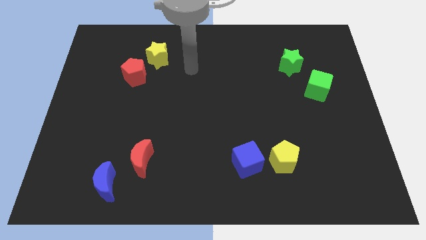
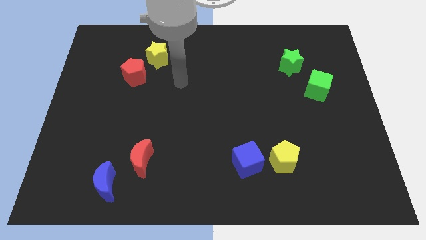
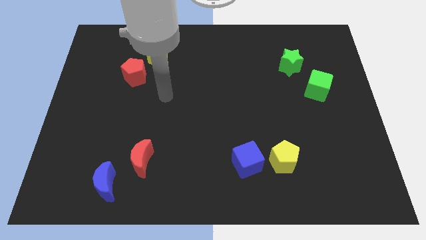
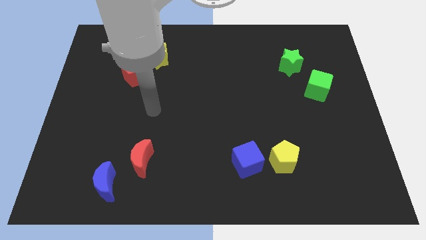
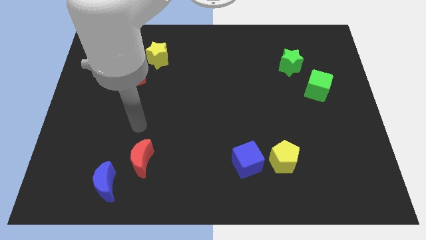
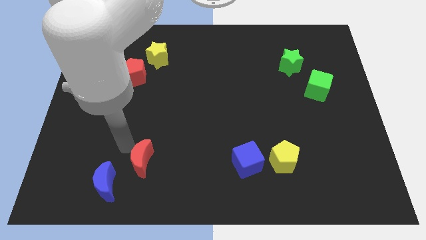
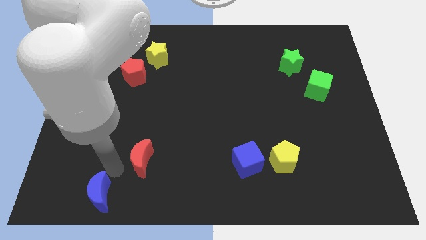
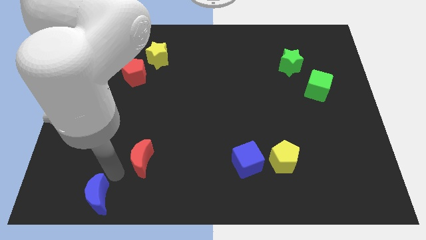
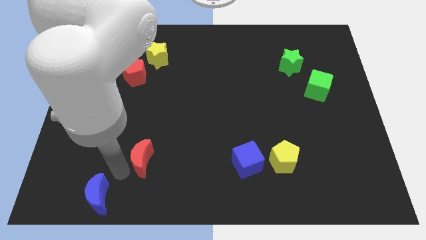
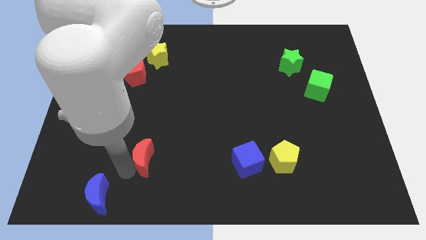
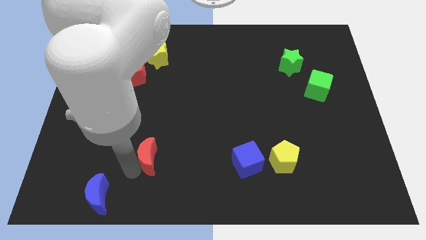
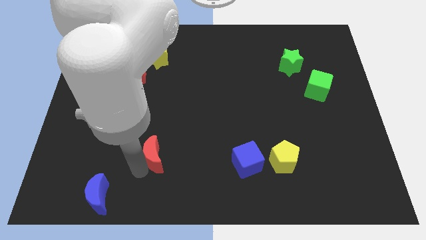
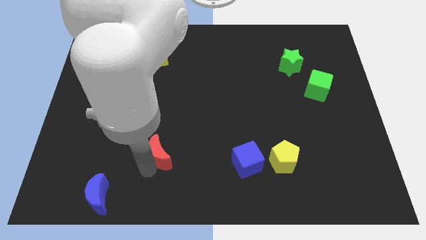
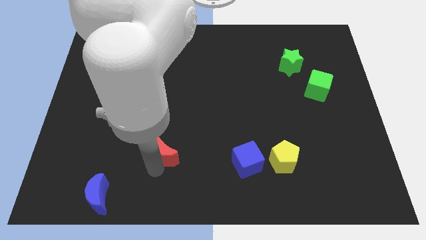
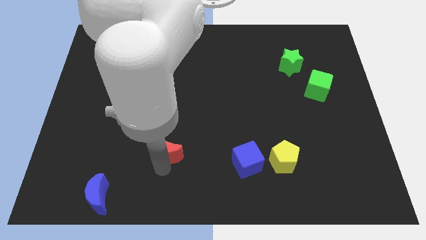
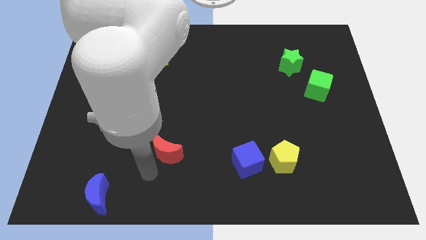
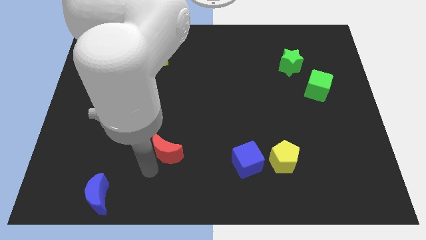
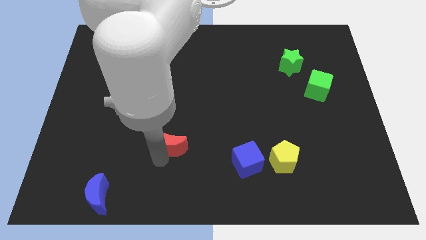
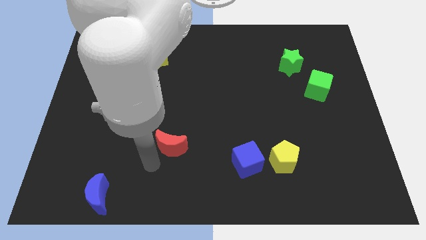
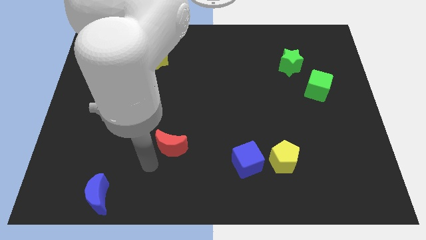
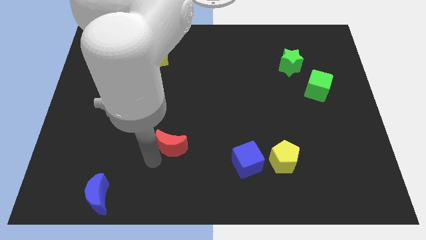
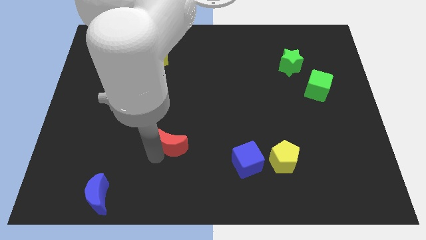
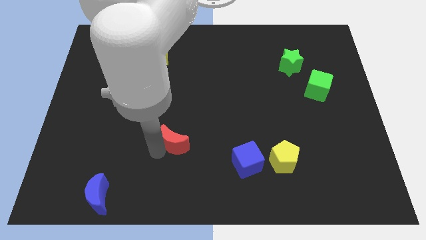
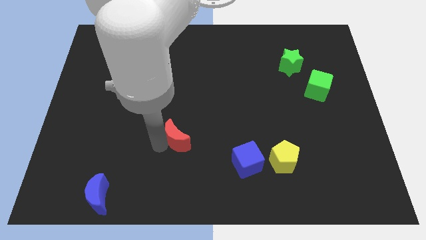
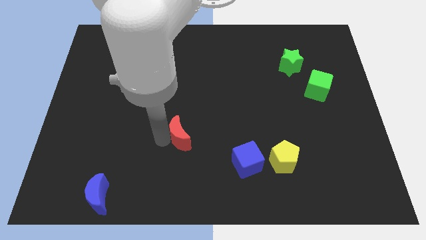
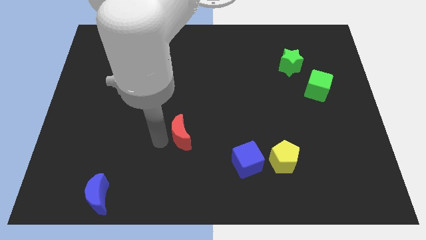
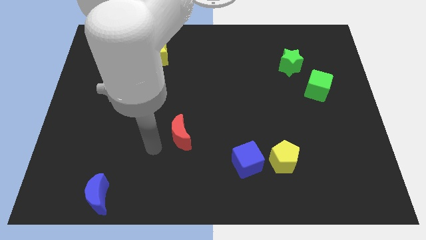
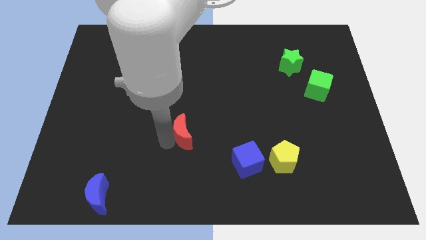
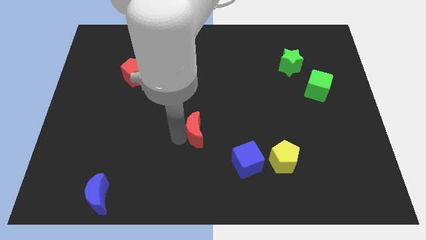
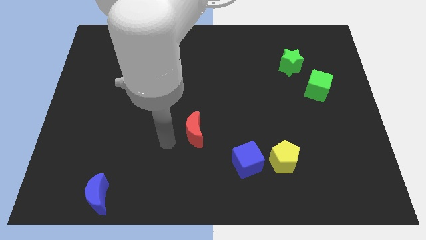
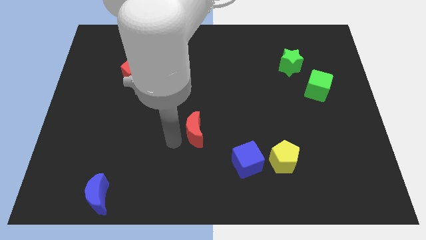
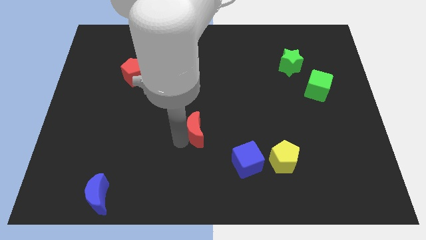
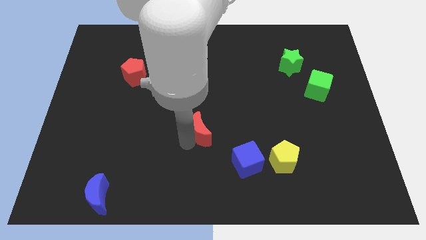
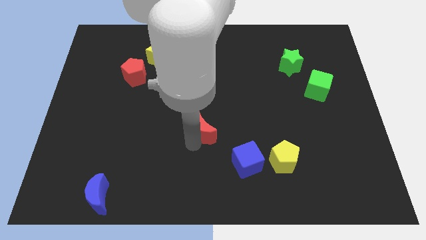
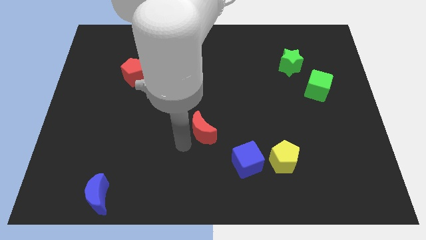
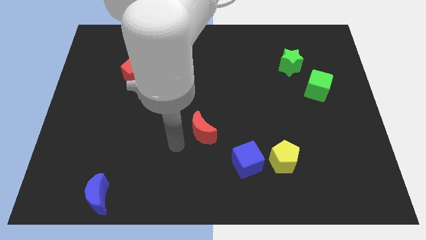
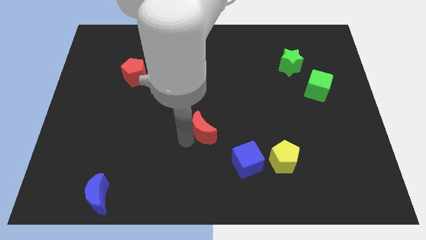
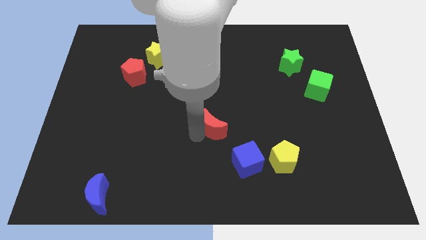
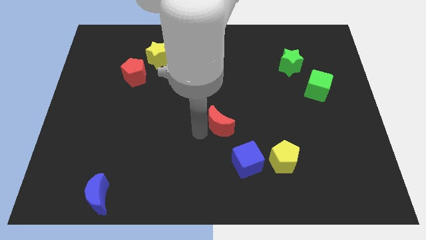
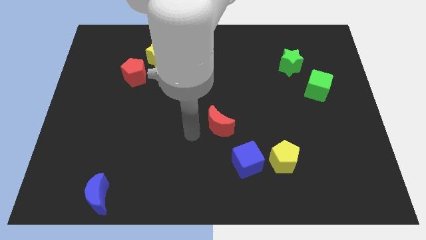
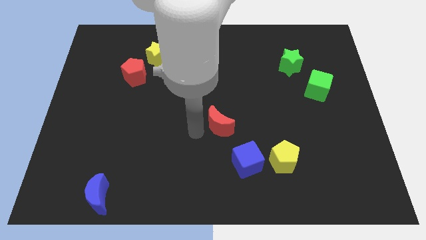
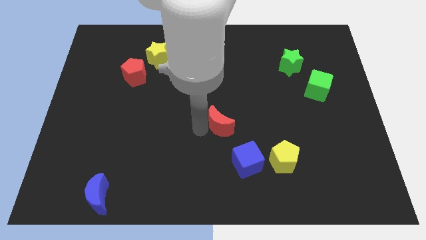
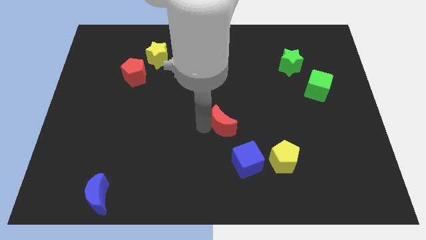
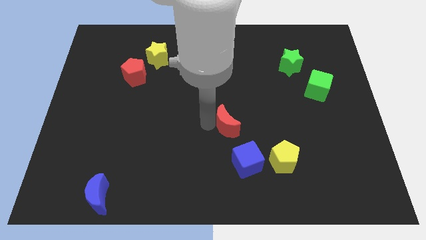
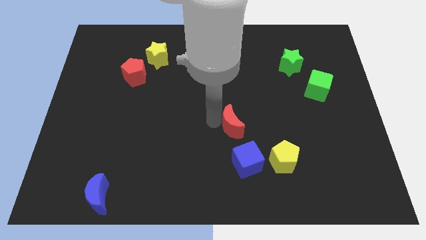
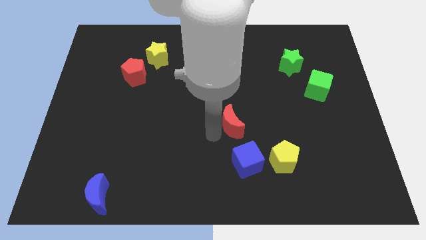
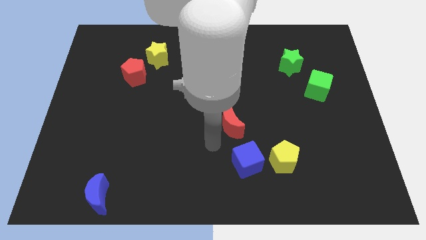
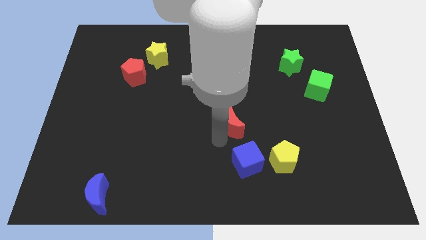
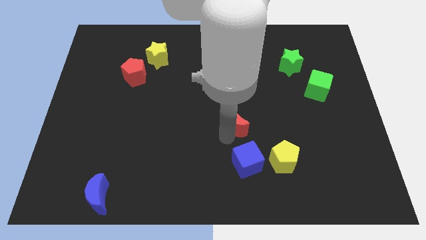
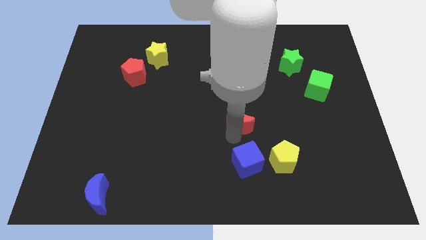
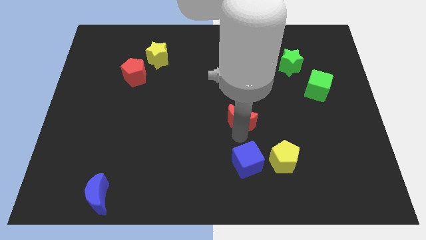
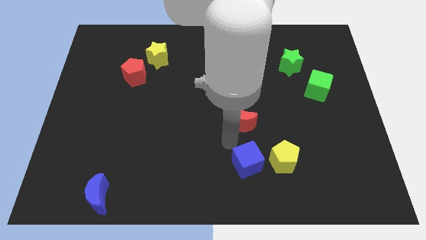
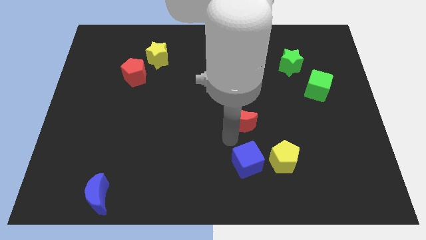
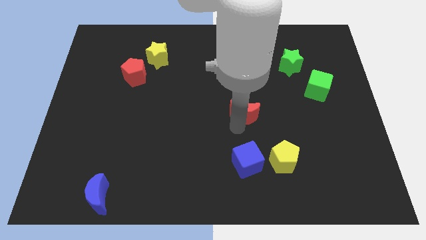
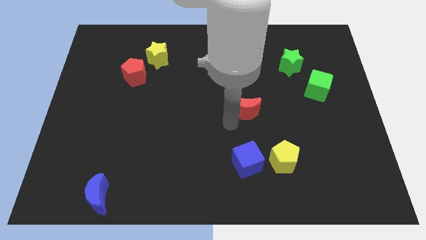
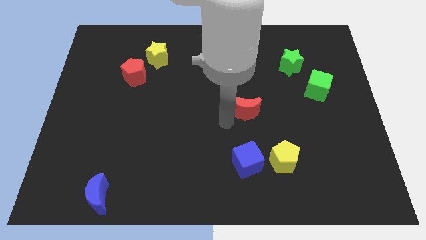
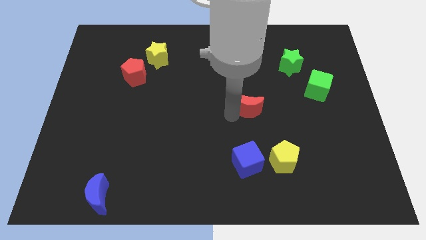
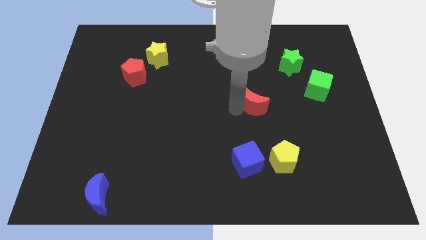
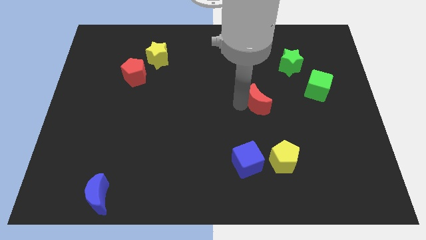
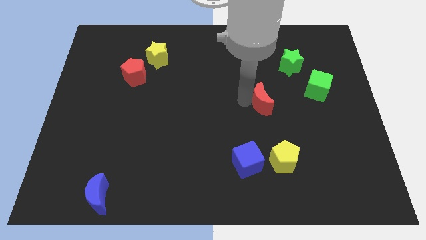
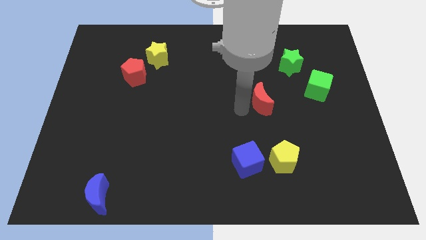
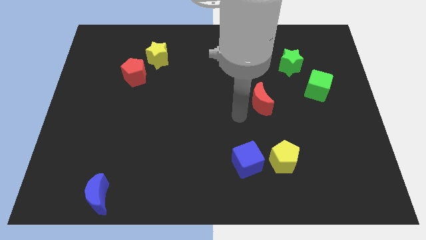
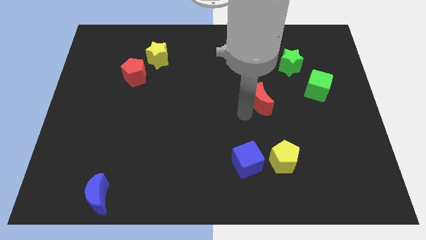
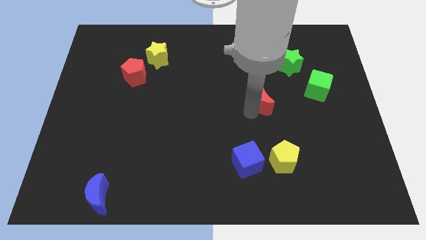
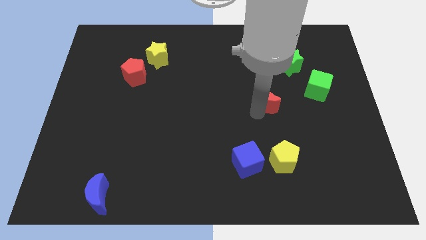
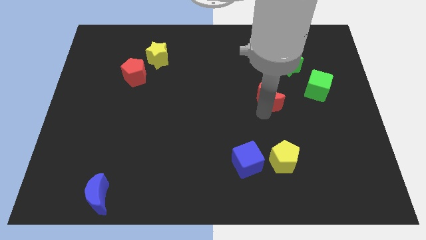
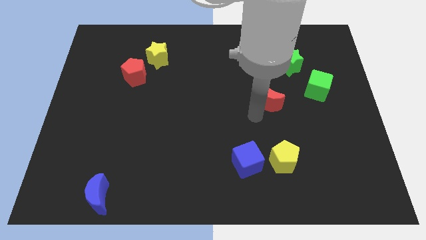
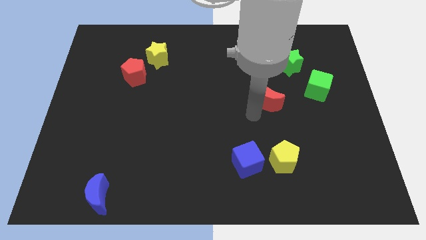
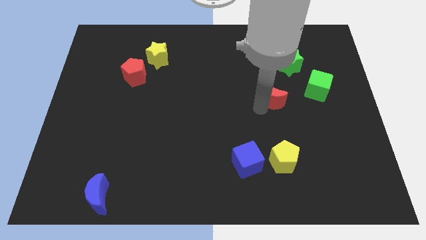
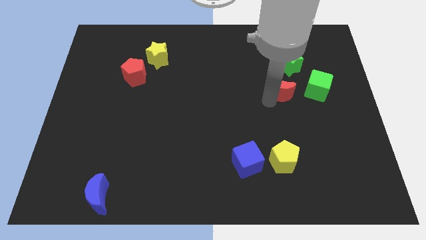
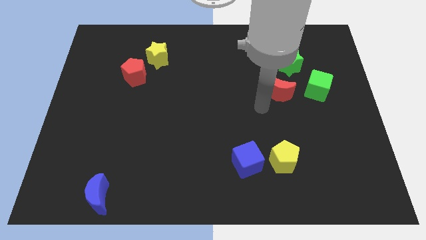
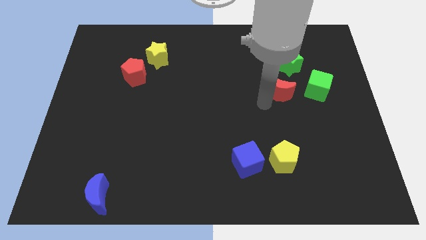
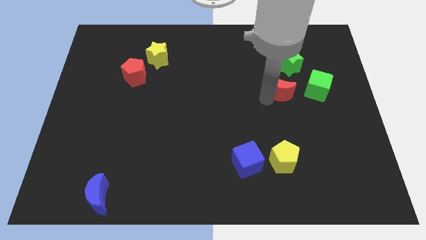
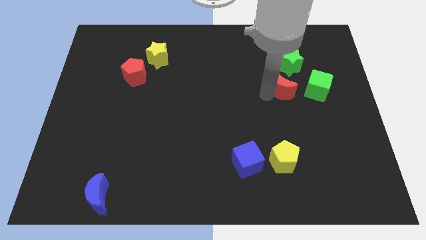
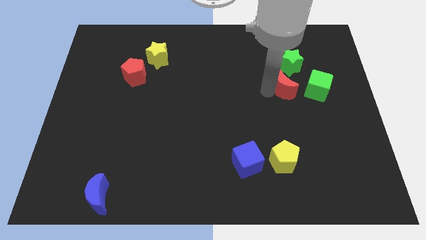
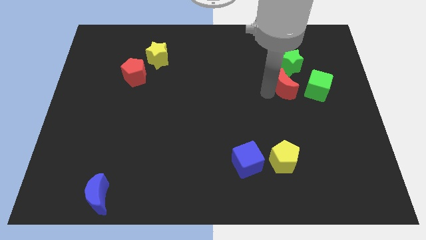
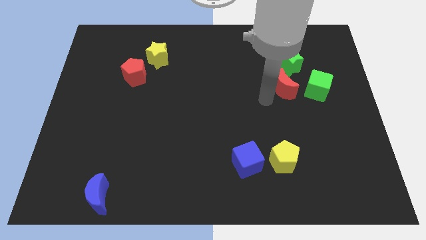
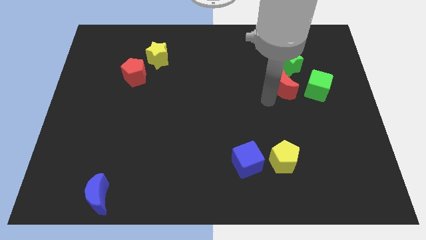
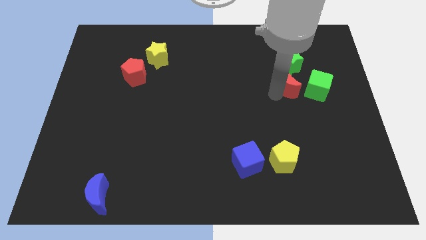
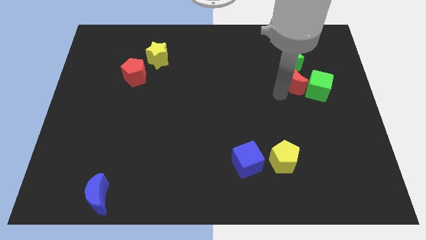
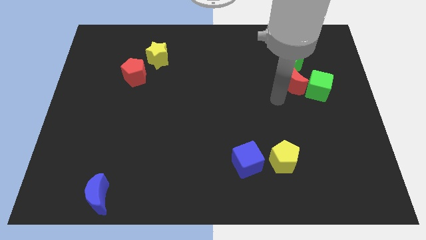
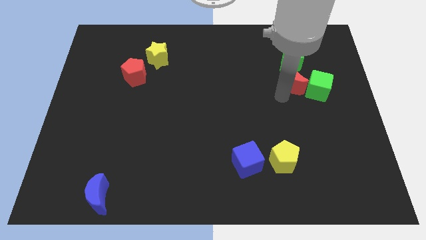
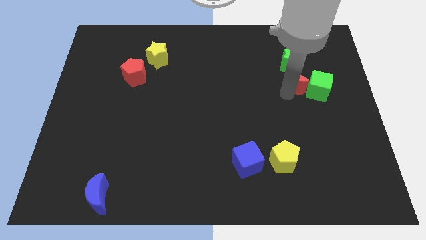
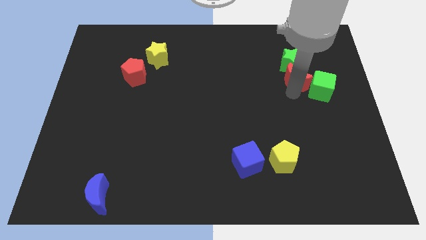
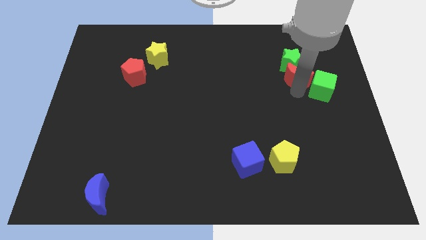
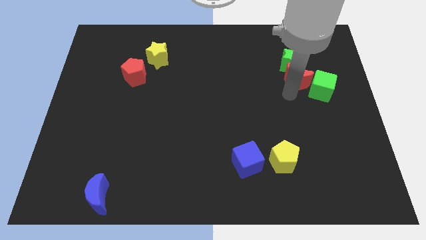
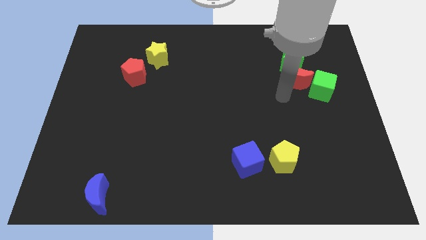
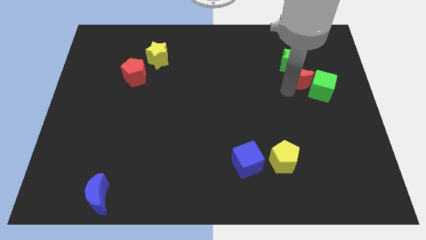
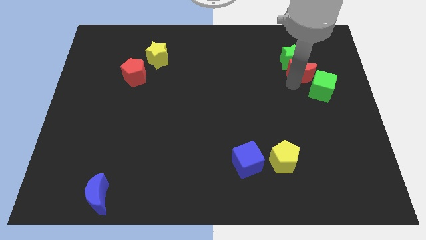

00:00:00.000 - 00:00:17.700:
put the red moon to the top of the green cube
